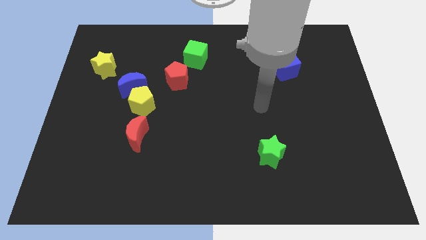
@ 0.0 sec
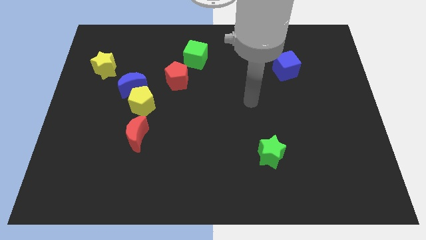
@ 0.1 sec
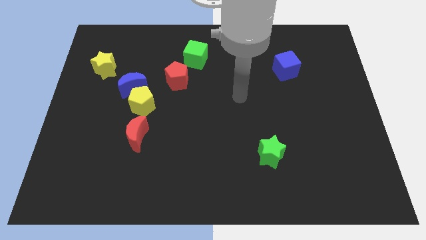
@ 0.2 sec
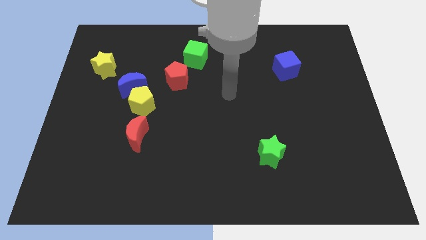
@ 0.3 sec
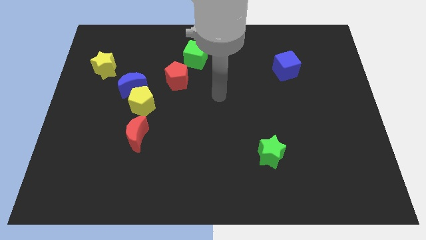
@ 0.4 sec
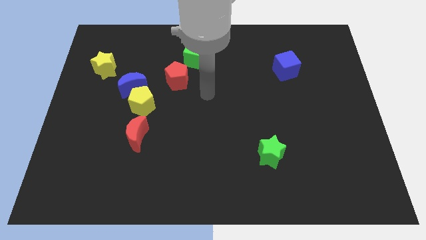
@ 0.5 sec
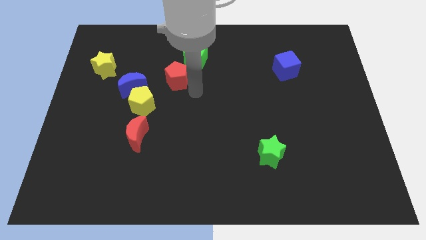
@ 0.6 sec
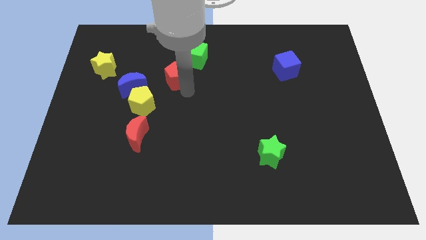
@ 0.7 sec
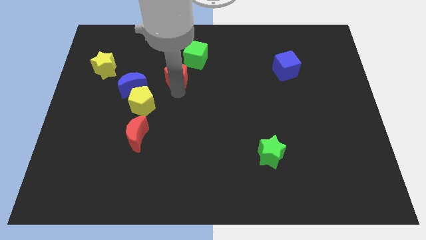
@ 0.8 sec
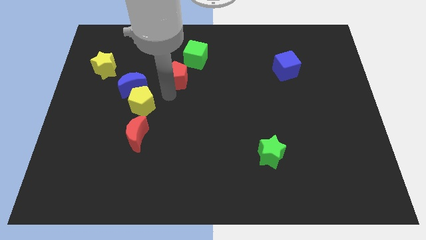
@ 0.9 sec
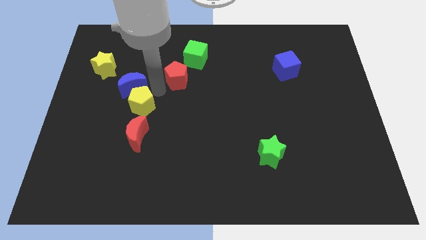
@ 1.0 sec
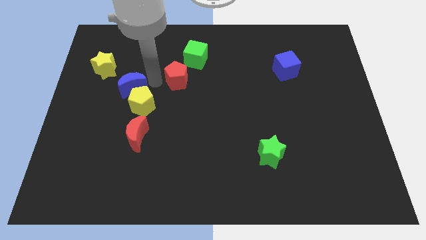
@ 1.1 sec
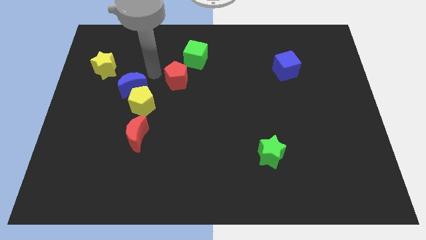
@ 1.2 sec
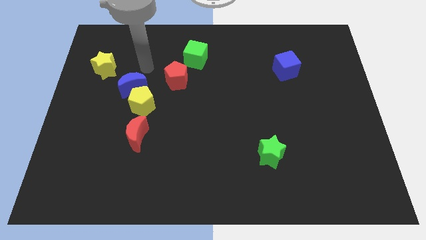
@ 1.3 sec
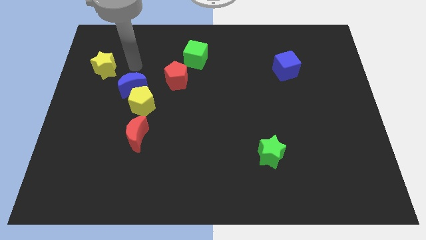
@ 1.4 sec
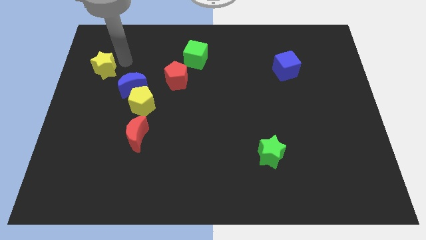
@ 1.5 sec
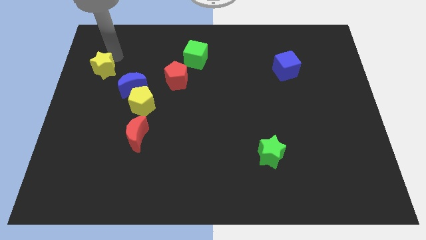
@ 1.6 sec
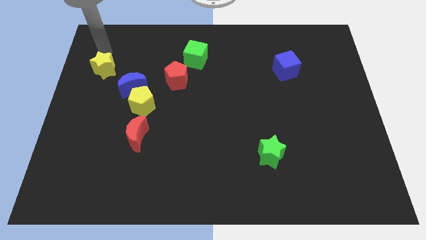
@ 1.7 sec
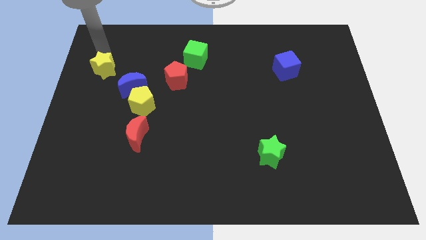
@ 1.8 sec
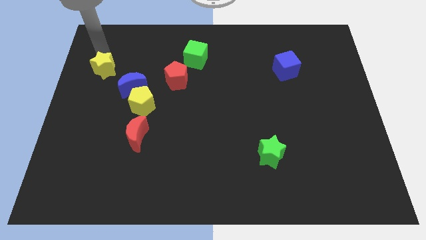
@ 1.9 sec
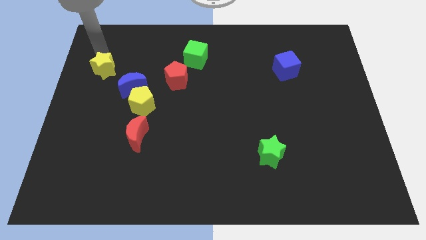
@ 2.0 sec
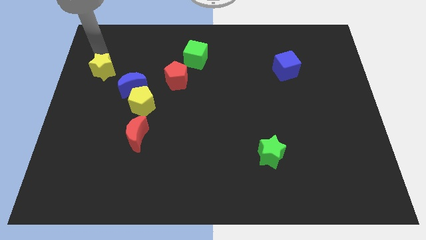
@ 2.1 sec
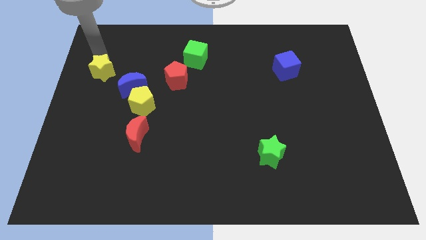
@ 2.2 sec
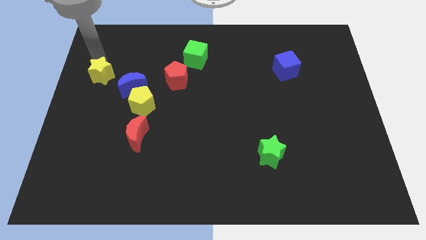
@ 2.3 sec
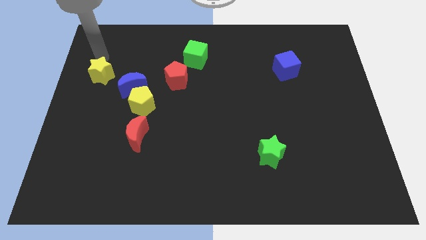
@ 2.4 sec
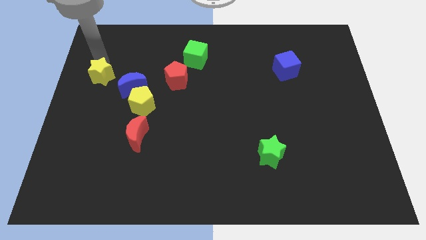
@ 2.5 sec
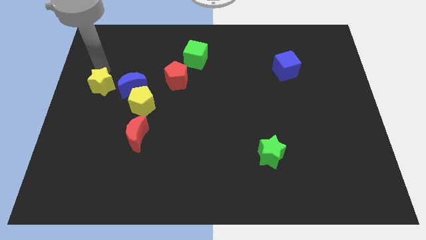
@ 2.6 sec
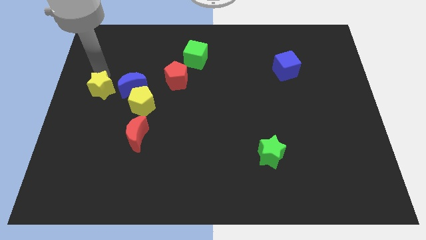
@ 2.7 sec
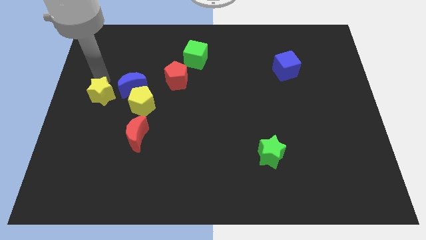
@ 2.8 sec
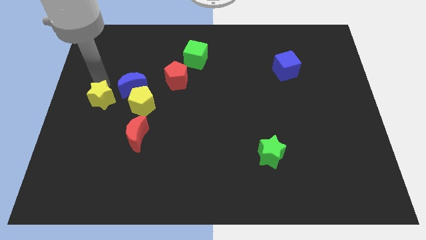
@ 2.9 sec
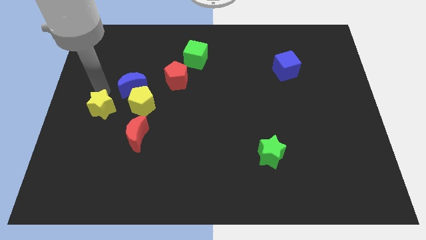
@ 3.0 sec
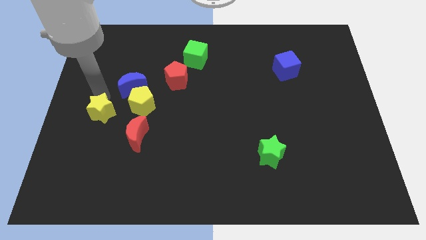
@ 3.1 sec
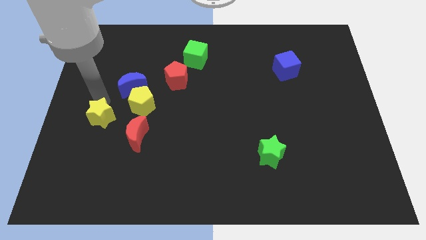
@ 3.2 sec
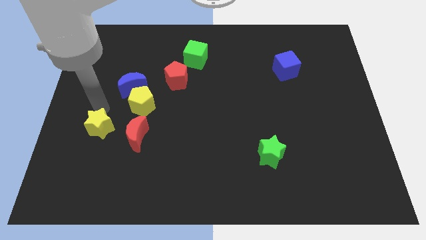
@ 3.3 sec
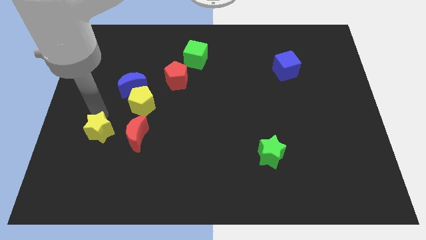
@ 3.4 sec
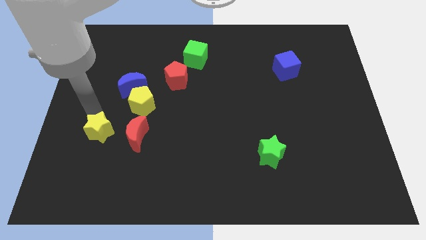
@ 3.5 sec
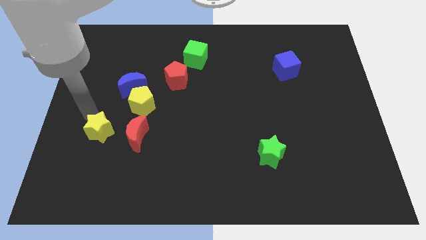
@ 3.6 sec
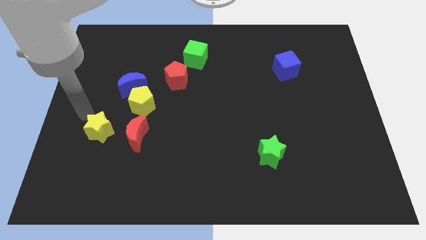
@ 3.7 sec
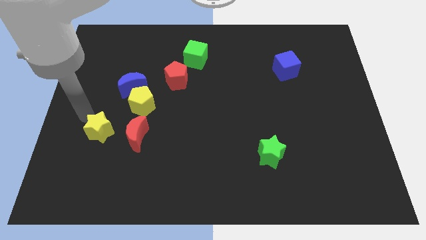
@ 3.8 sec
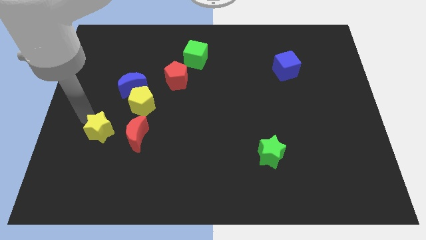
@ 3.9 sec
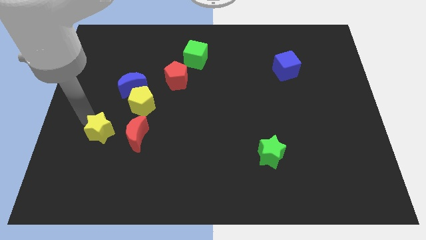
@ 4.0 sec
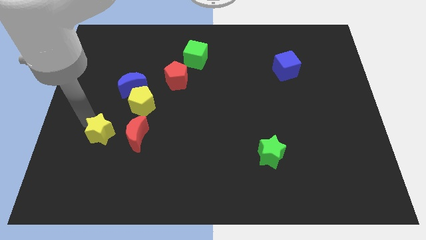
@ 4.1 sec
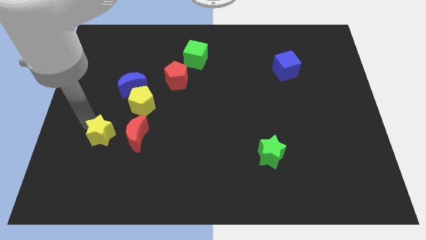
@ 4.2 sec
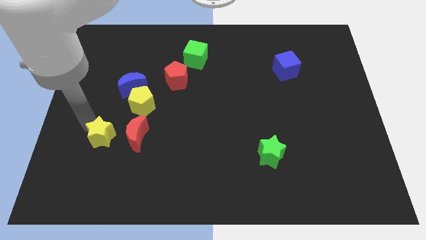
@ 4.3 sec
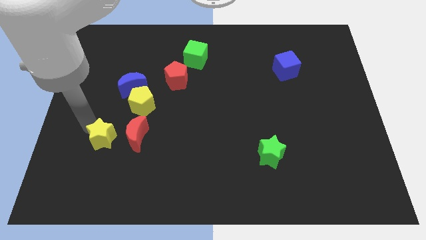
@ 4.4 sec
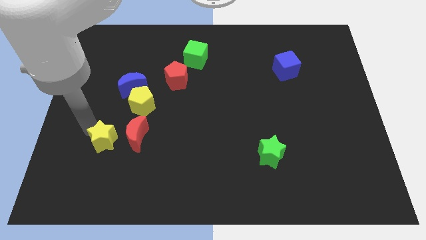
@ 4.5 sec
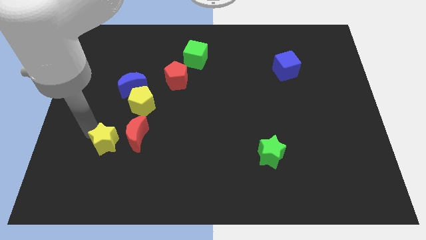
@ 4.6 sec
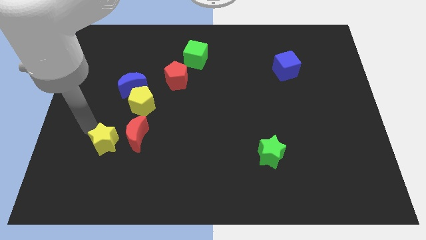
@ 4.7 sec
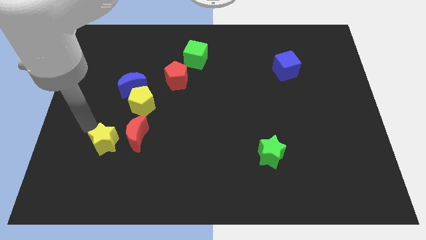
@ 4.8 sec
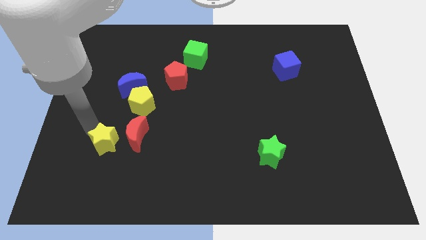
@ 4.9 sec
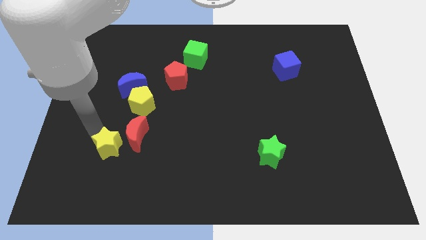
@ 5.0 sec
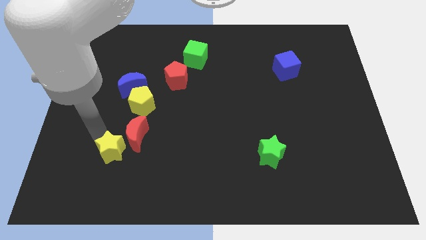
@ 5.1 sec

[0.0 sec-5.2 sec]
slide the yellow star to the bottom of the red moon

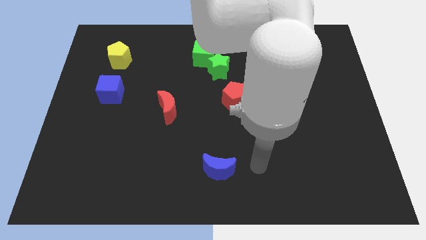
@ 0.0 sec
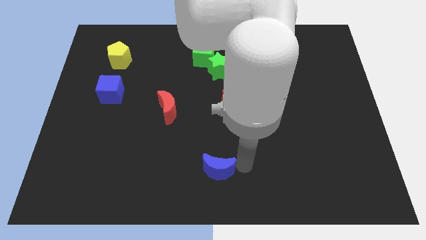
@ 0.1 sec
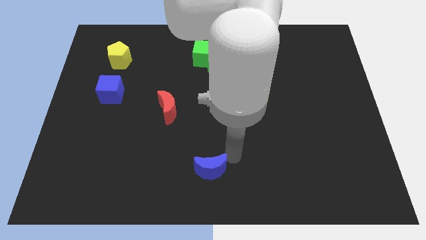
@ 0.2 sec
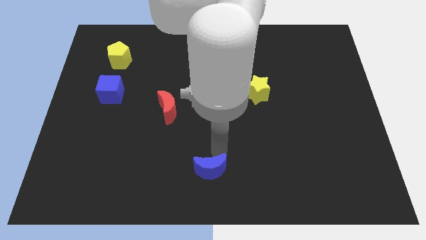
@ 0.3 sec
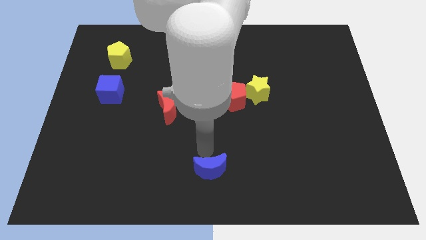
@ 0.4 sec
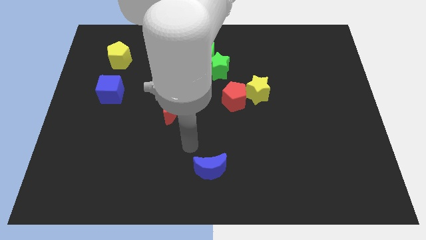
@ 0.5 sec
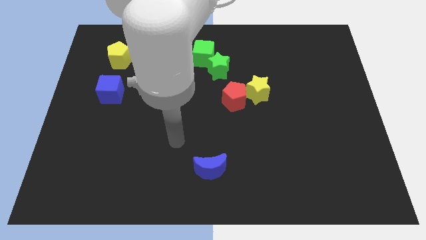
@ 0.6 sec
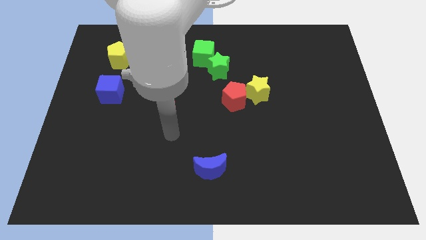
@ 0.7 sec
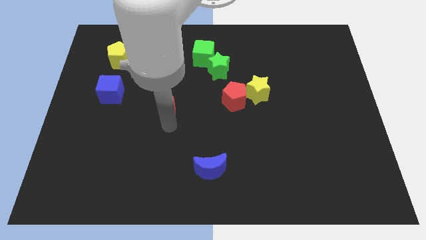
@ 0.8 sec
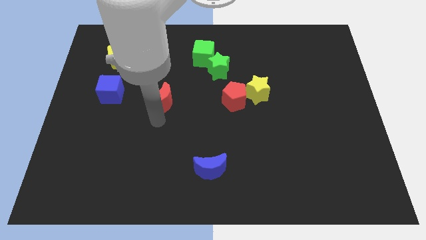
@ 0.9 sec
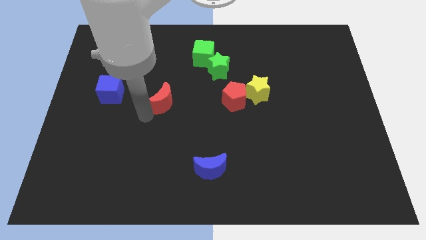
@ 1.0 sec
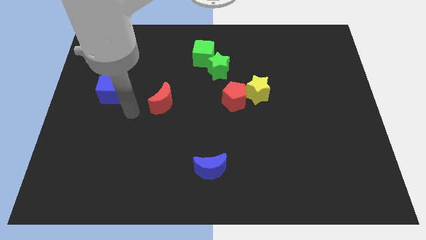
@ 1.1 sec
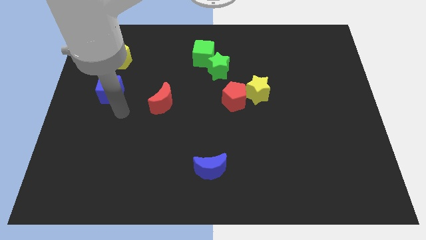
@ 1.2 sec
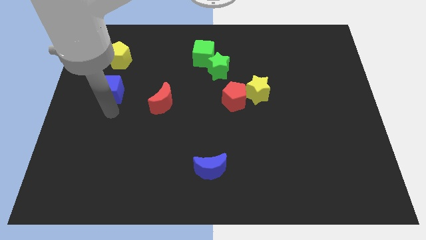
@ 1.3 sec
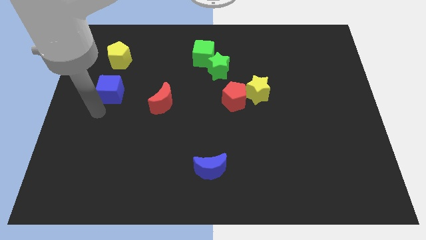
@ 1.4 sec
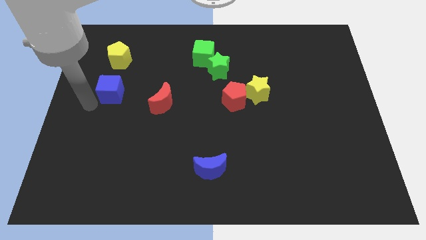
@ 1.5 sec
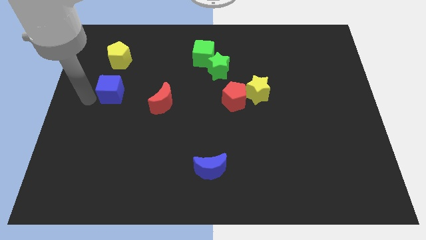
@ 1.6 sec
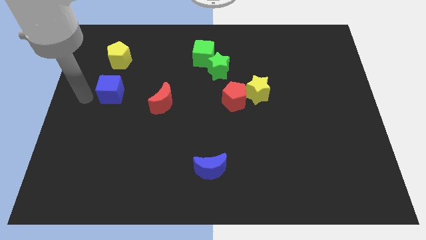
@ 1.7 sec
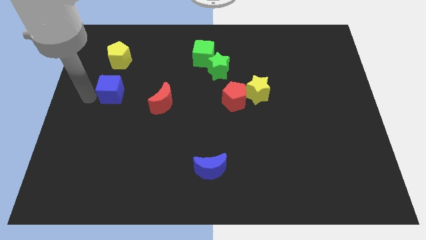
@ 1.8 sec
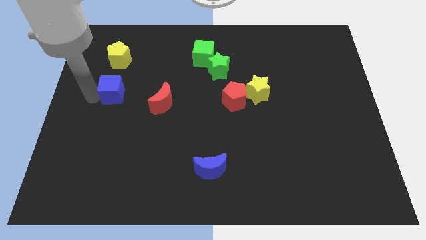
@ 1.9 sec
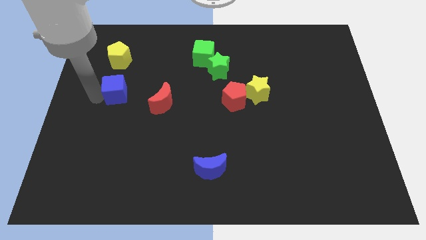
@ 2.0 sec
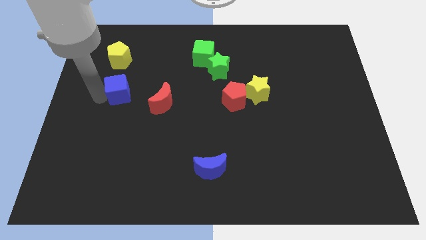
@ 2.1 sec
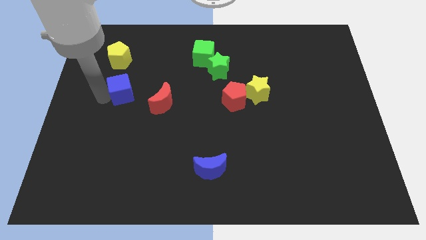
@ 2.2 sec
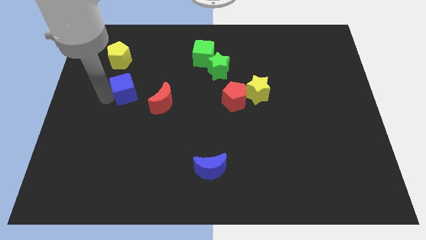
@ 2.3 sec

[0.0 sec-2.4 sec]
push the blue cube to the top left side of the red moon
